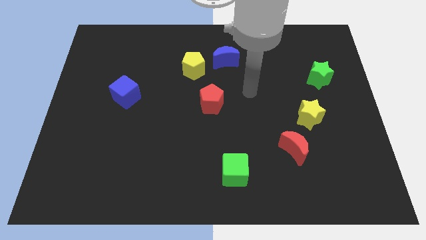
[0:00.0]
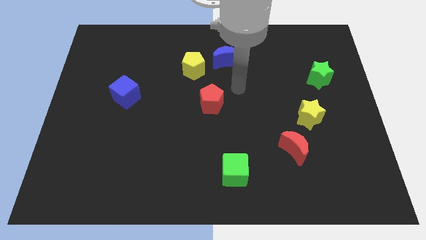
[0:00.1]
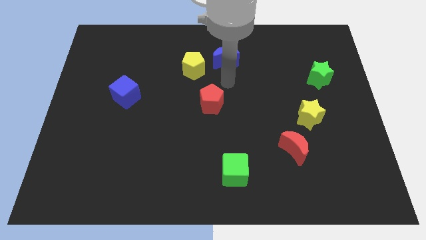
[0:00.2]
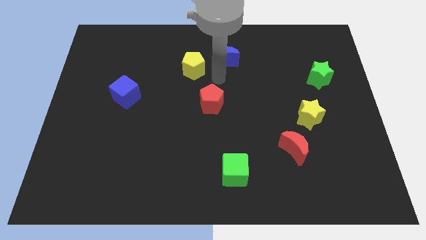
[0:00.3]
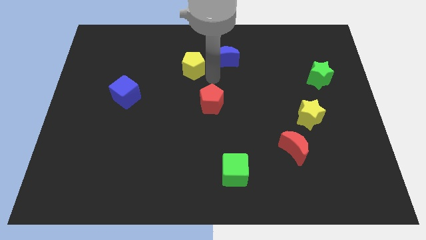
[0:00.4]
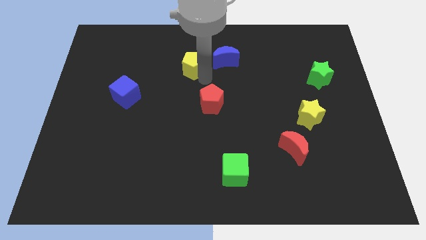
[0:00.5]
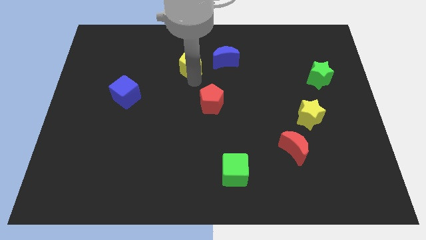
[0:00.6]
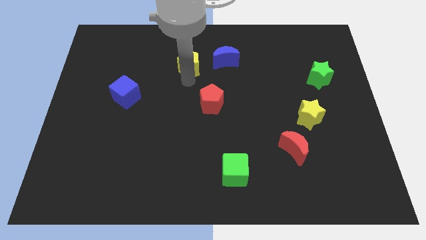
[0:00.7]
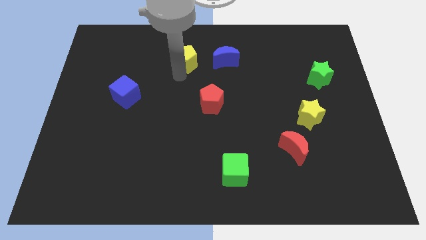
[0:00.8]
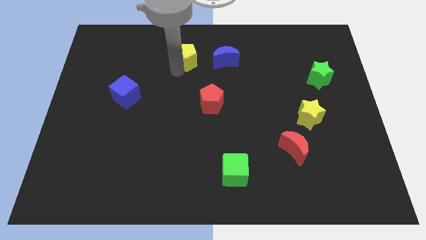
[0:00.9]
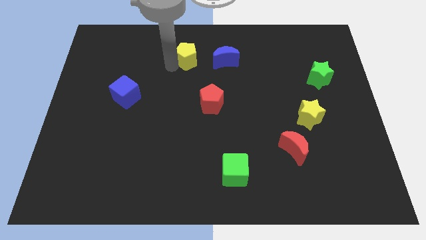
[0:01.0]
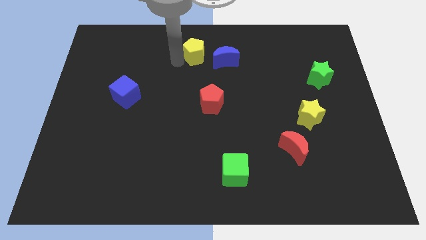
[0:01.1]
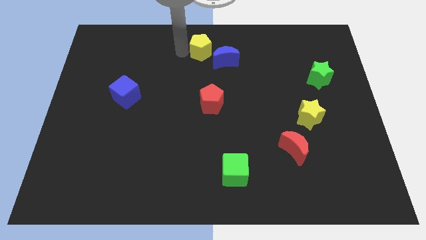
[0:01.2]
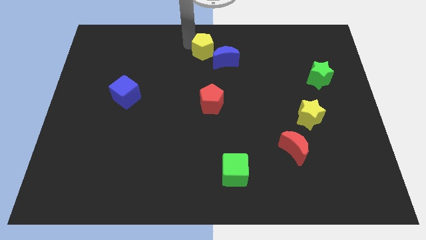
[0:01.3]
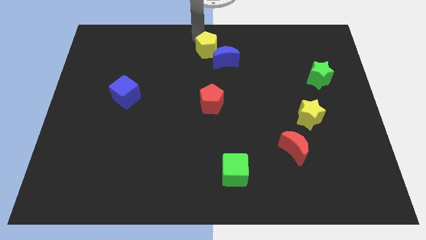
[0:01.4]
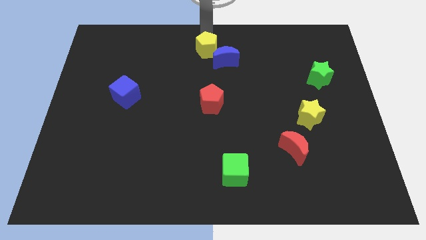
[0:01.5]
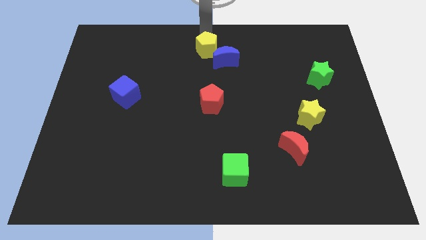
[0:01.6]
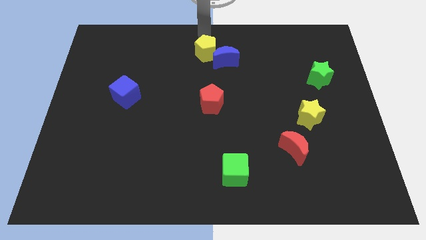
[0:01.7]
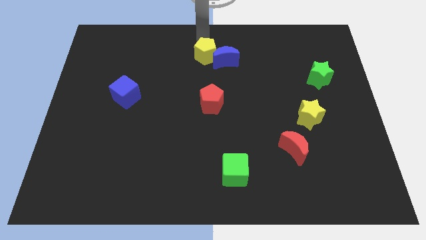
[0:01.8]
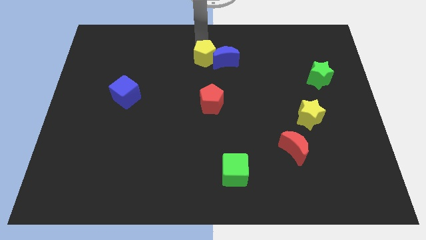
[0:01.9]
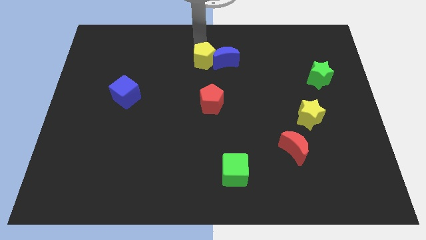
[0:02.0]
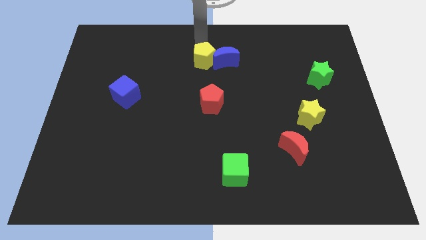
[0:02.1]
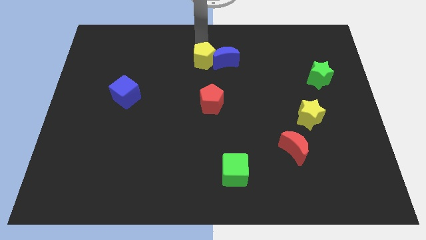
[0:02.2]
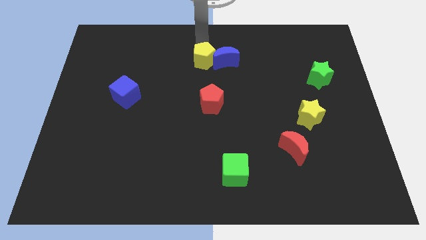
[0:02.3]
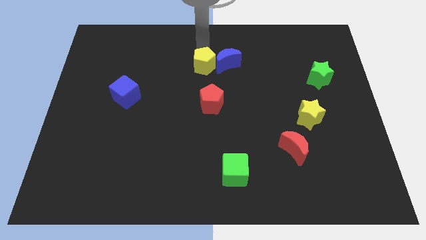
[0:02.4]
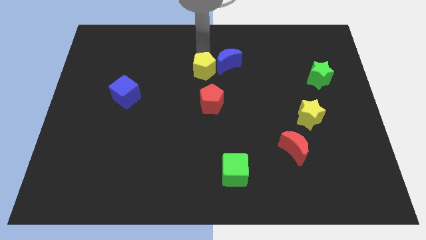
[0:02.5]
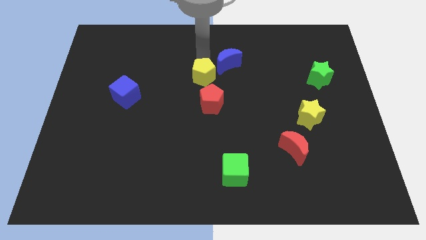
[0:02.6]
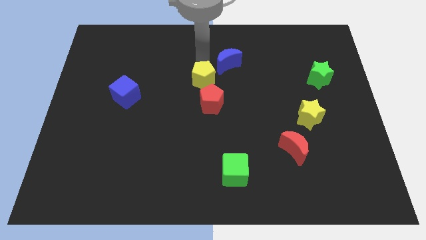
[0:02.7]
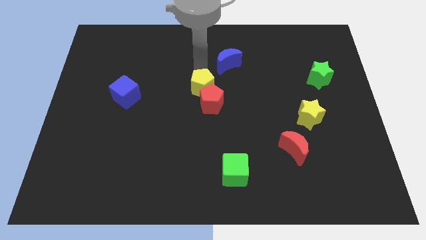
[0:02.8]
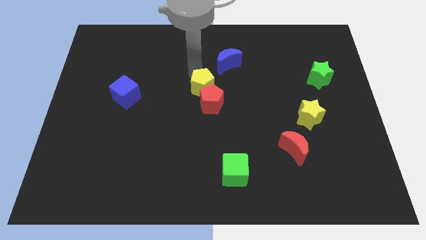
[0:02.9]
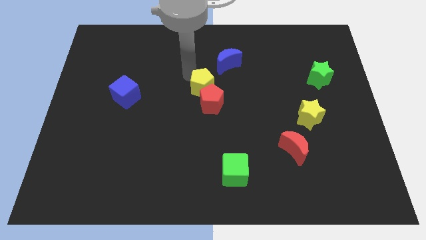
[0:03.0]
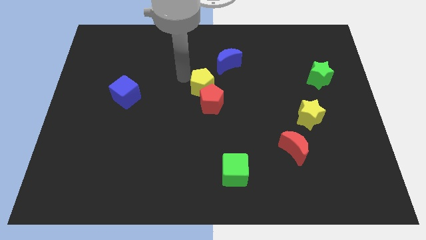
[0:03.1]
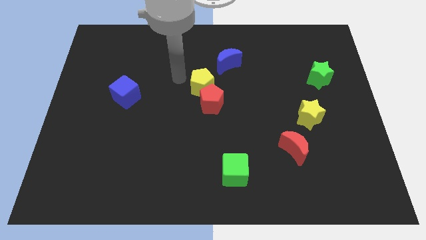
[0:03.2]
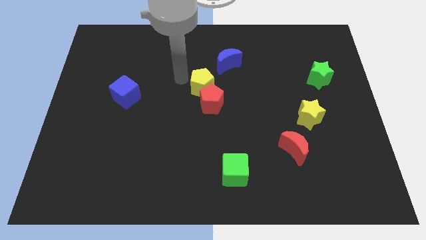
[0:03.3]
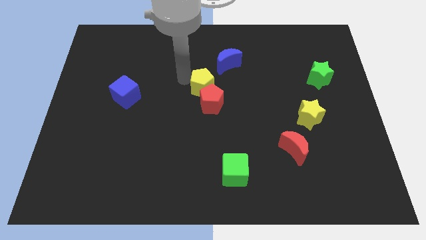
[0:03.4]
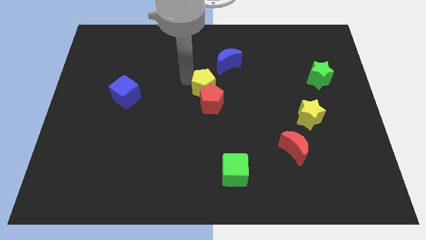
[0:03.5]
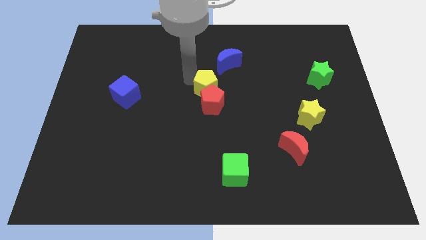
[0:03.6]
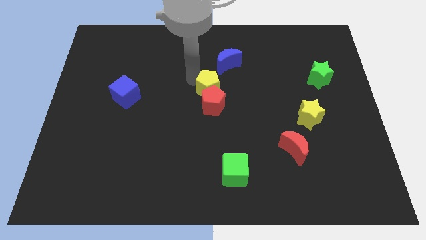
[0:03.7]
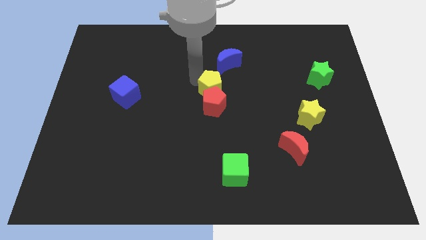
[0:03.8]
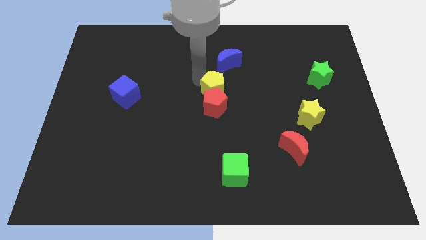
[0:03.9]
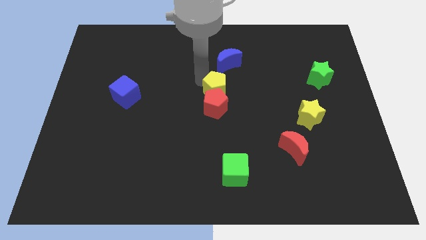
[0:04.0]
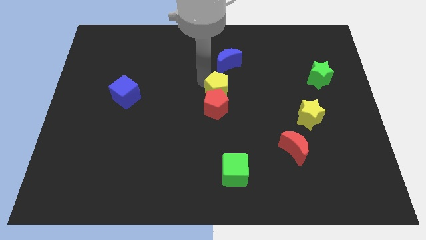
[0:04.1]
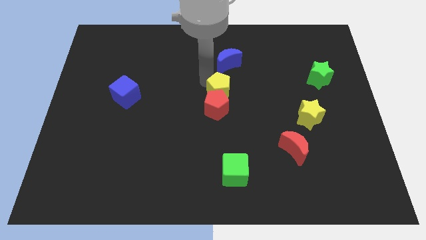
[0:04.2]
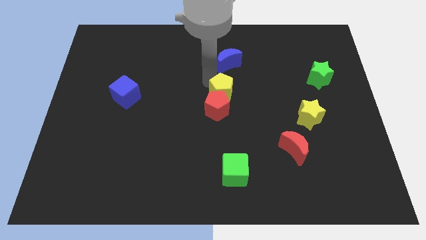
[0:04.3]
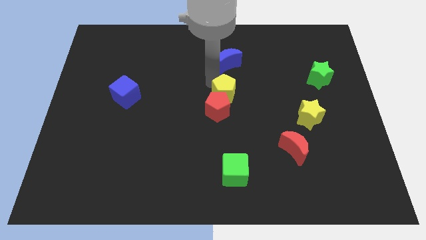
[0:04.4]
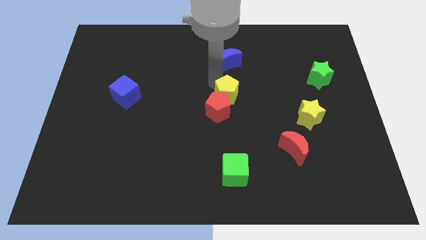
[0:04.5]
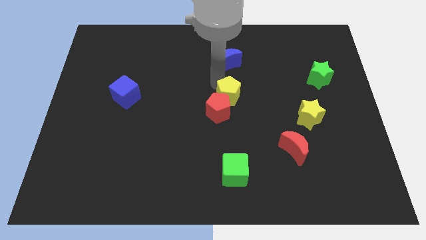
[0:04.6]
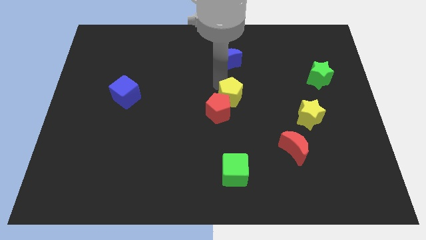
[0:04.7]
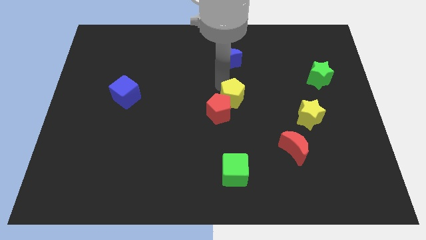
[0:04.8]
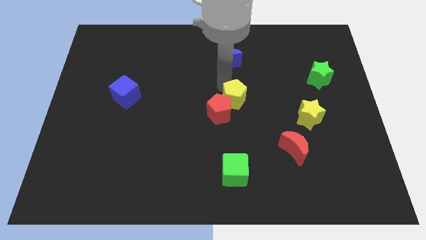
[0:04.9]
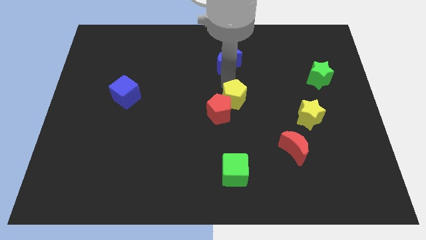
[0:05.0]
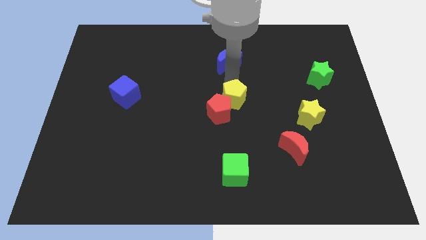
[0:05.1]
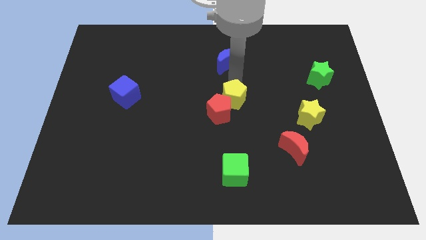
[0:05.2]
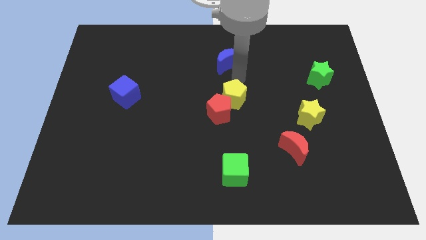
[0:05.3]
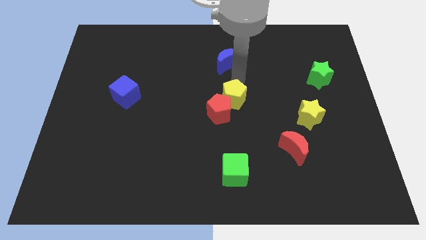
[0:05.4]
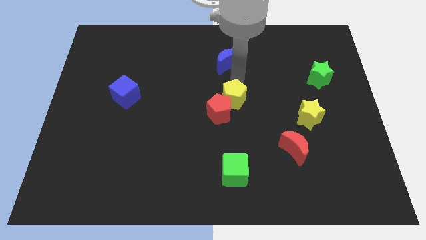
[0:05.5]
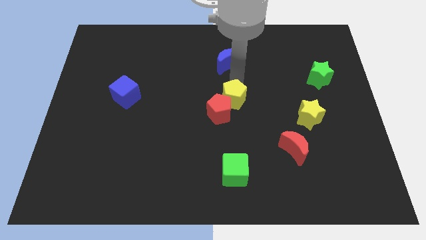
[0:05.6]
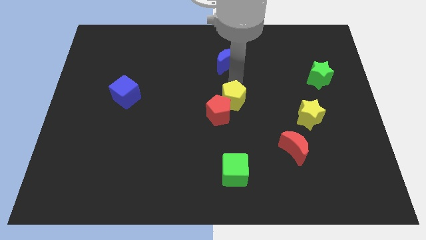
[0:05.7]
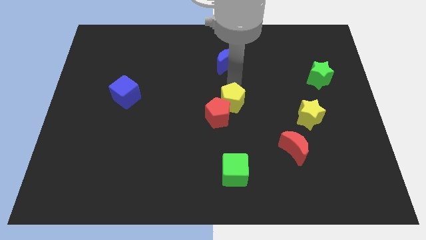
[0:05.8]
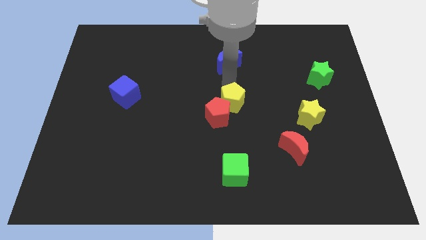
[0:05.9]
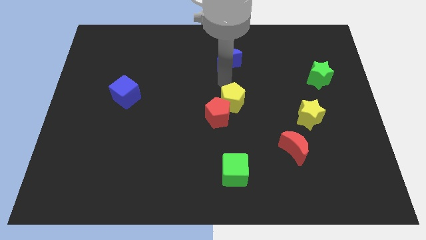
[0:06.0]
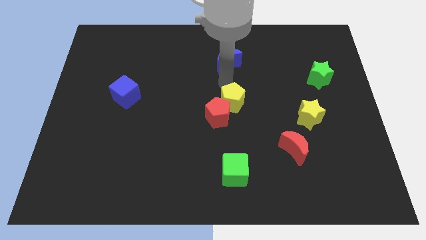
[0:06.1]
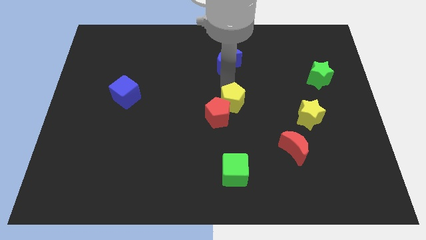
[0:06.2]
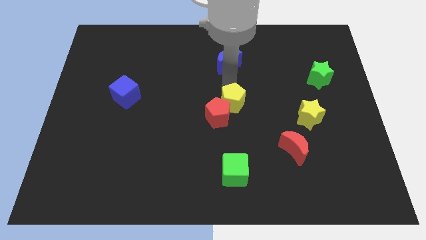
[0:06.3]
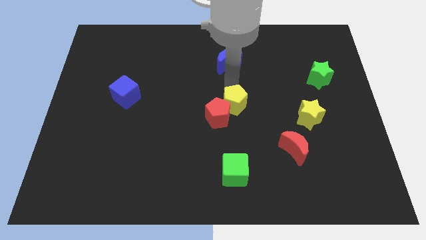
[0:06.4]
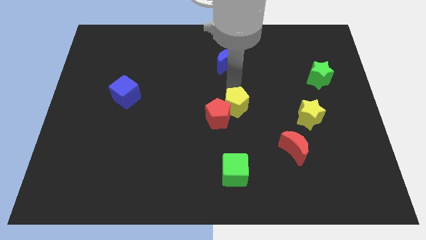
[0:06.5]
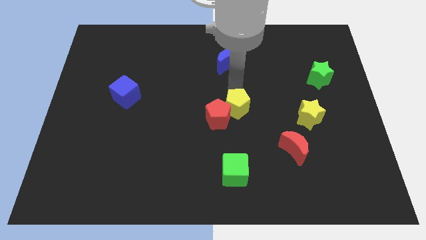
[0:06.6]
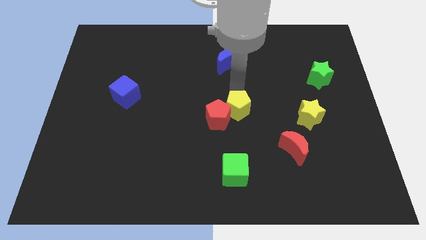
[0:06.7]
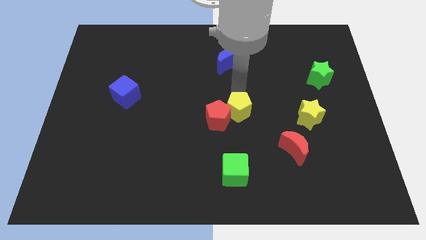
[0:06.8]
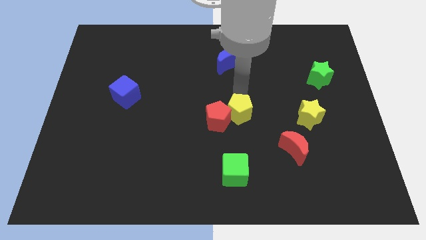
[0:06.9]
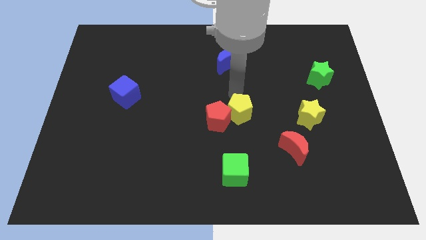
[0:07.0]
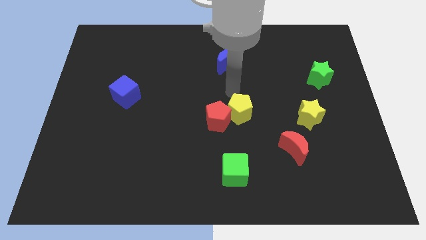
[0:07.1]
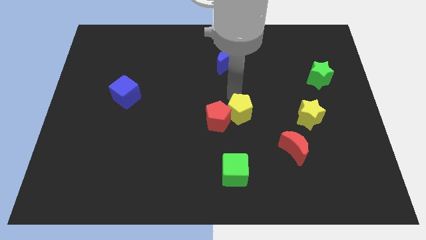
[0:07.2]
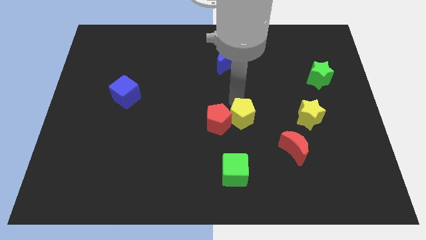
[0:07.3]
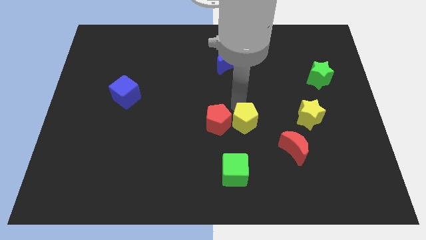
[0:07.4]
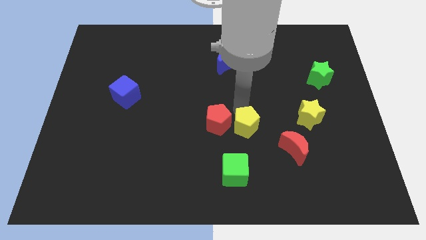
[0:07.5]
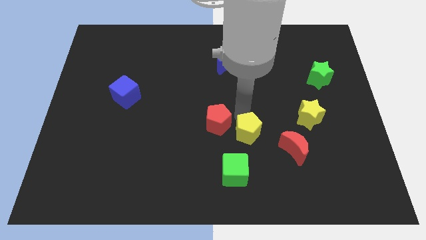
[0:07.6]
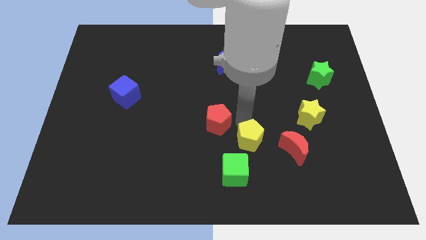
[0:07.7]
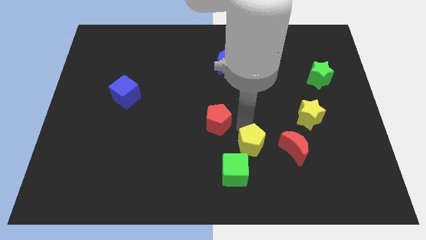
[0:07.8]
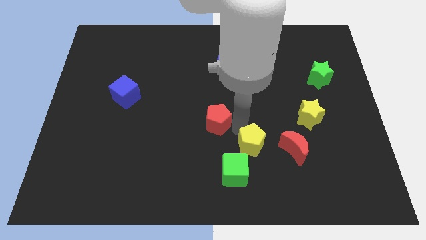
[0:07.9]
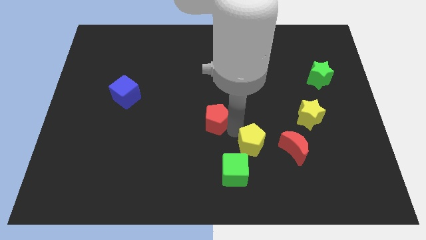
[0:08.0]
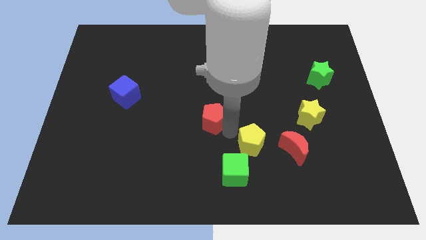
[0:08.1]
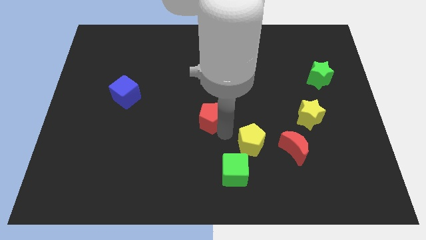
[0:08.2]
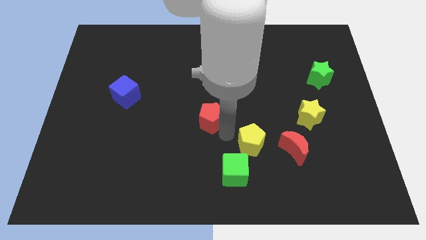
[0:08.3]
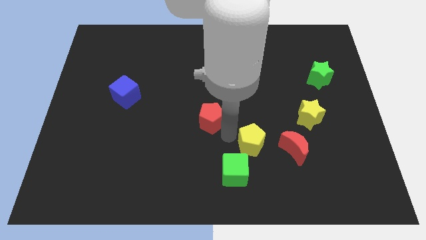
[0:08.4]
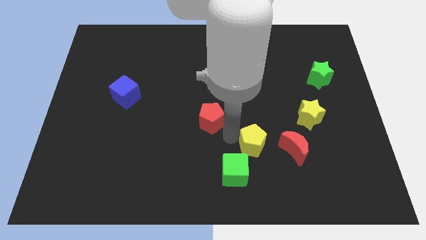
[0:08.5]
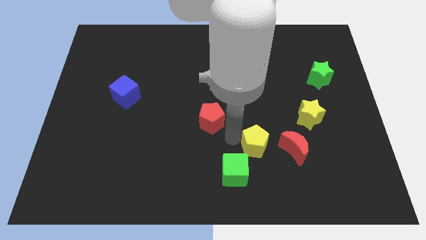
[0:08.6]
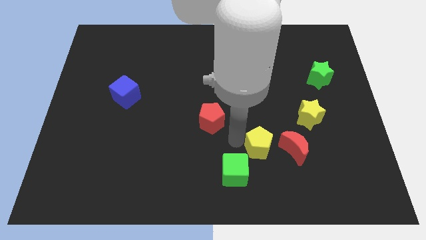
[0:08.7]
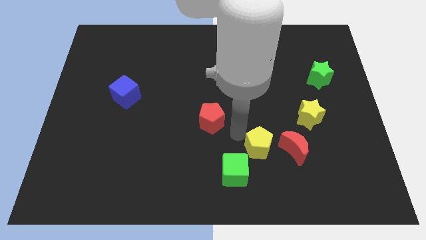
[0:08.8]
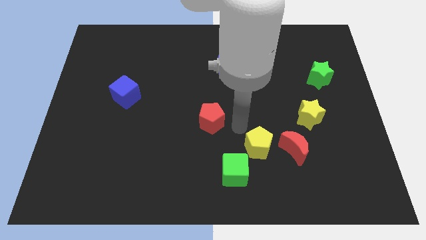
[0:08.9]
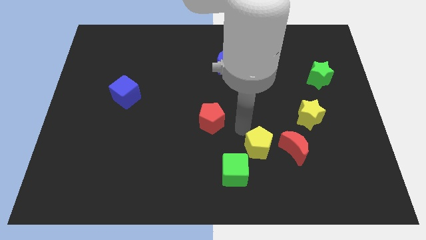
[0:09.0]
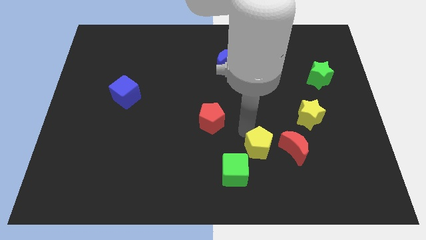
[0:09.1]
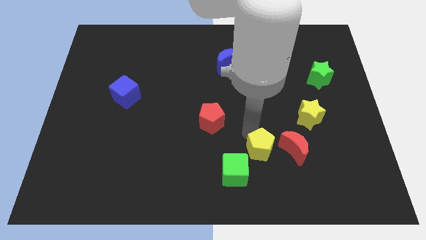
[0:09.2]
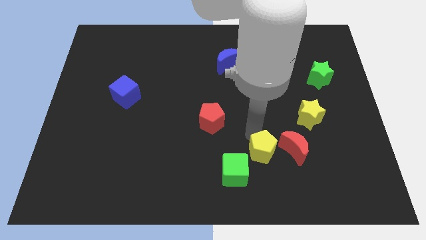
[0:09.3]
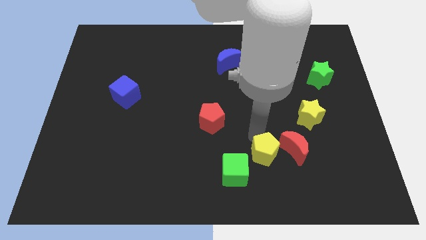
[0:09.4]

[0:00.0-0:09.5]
move the yellow pentagon right of the green cube
